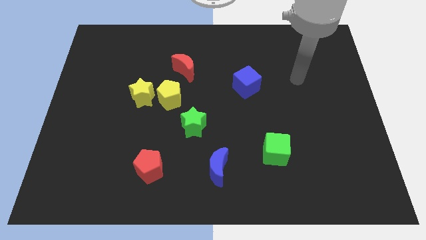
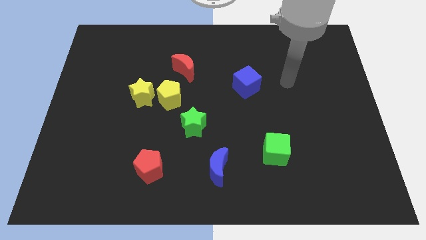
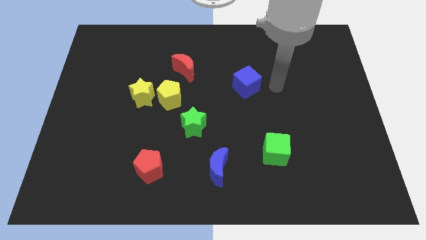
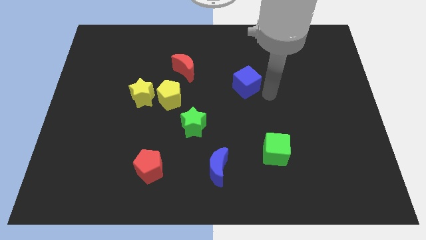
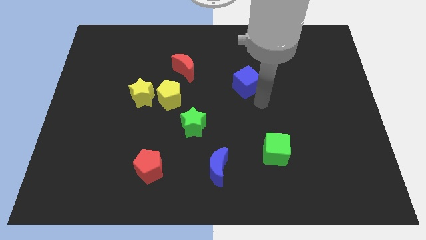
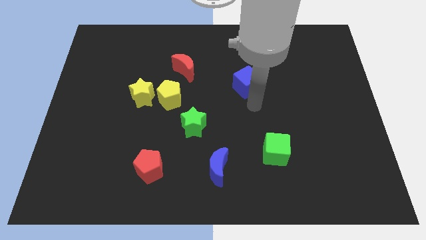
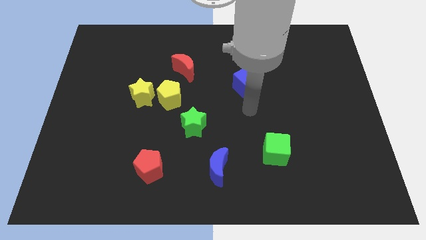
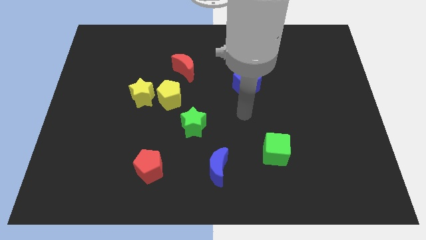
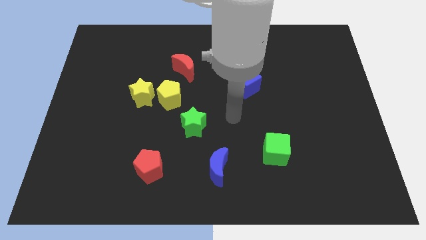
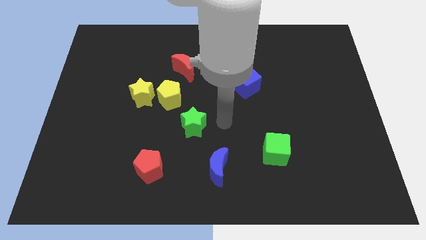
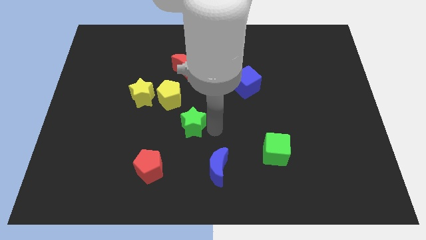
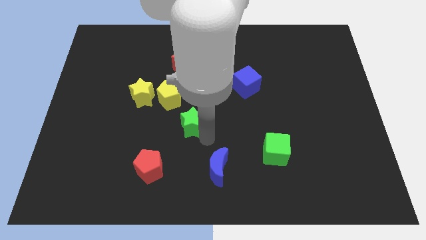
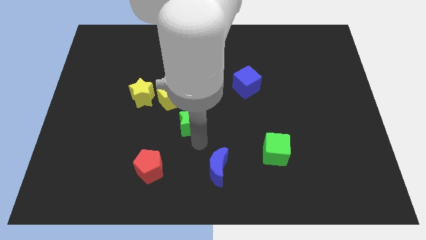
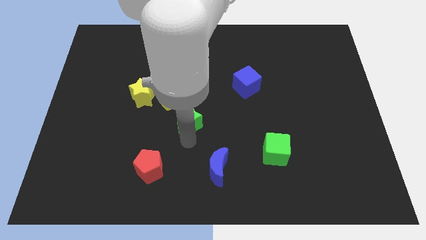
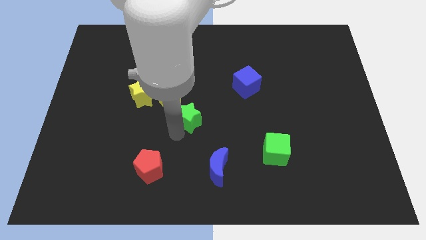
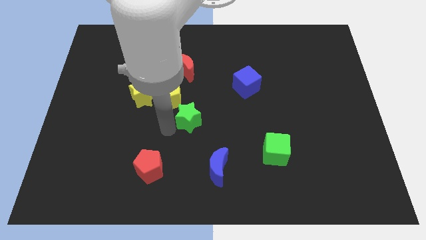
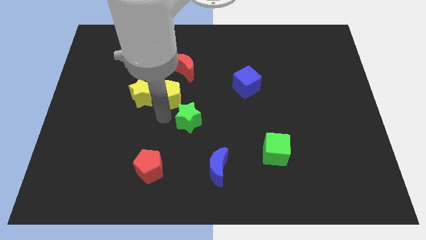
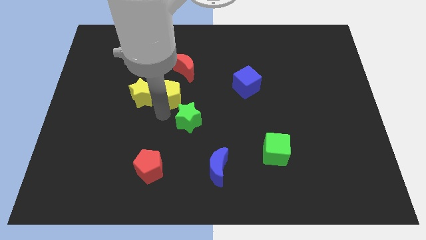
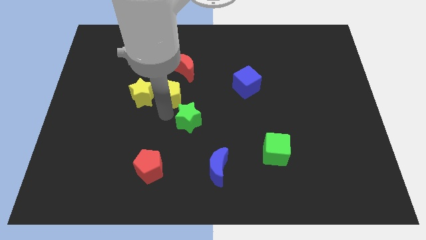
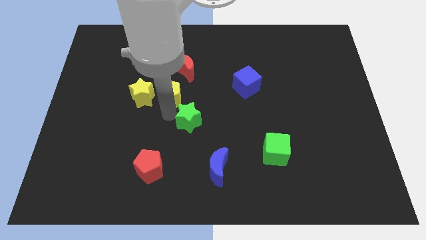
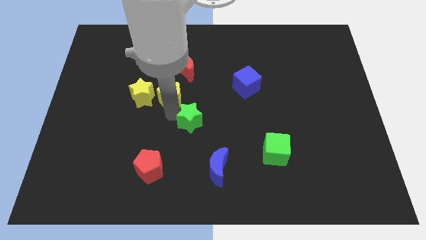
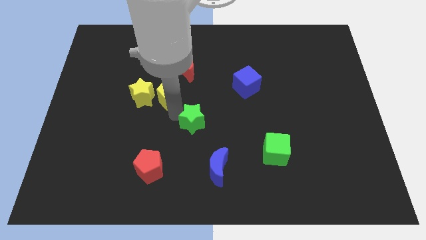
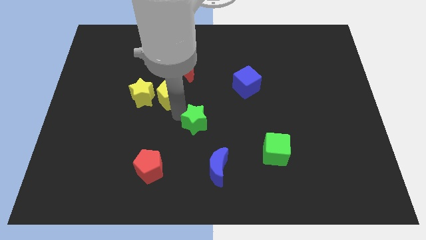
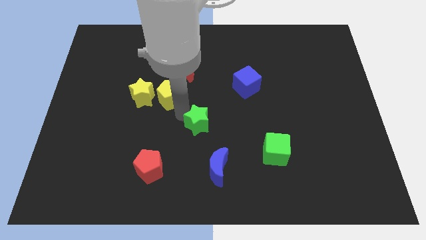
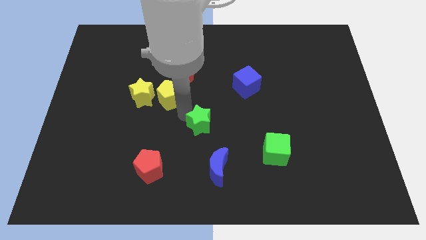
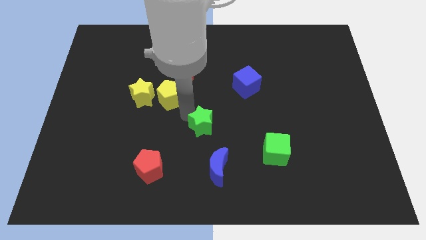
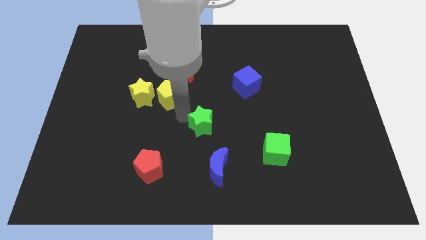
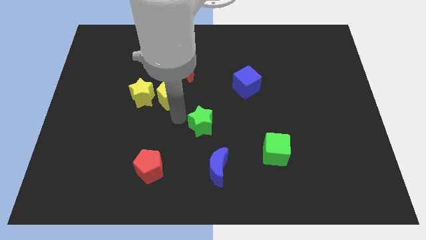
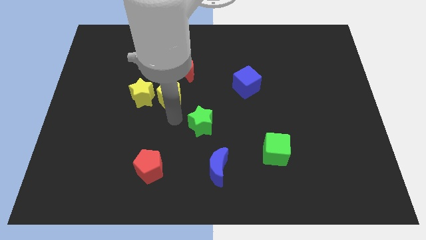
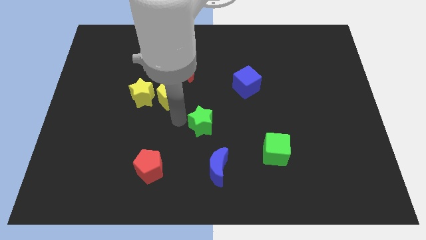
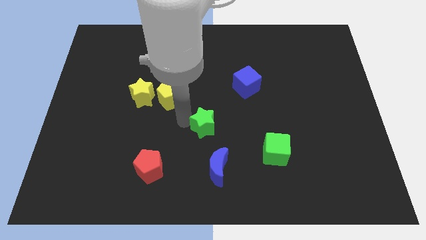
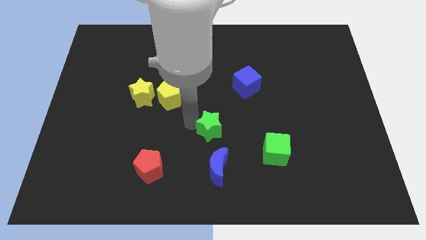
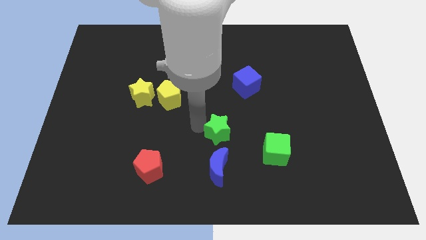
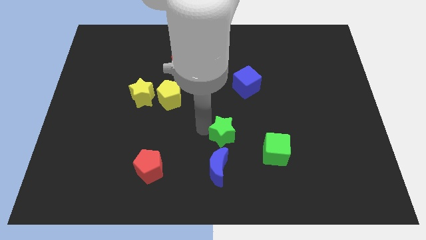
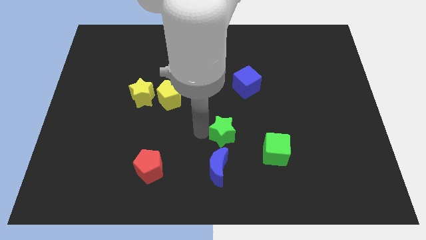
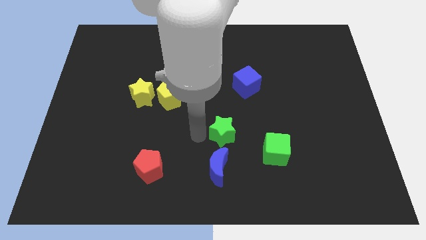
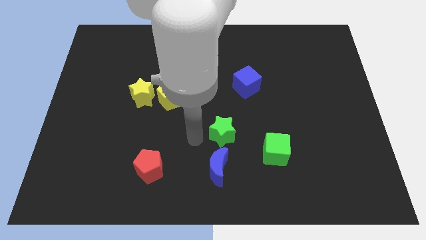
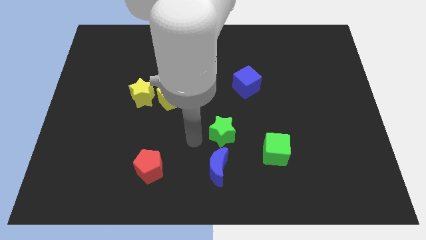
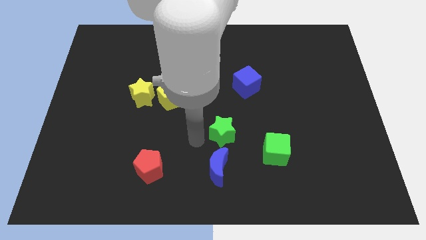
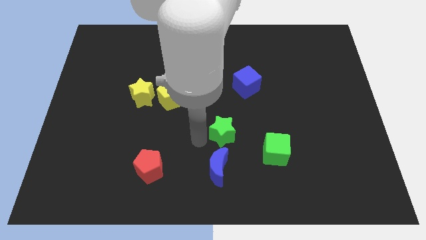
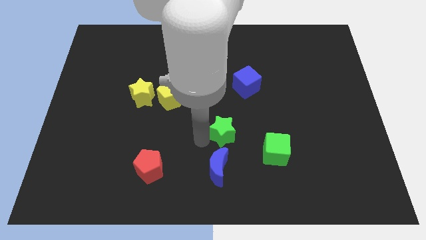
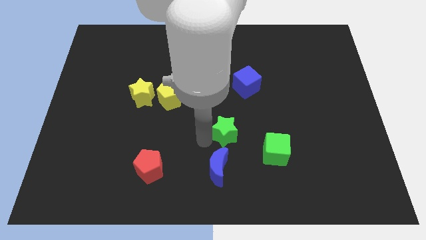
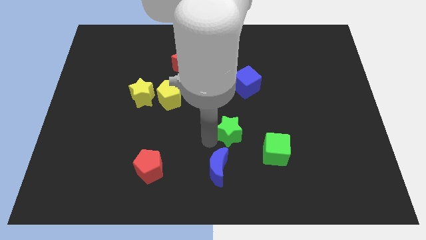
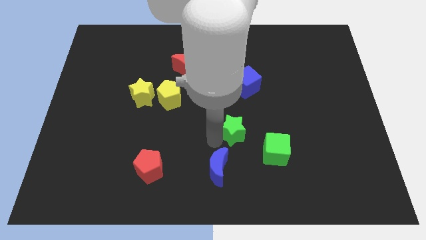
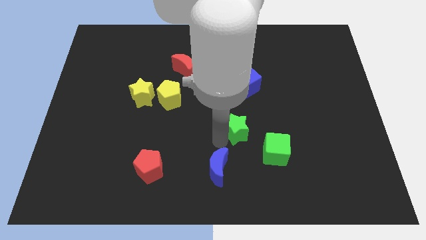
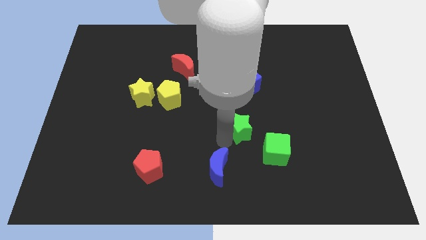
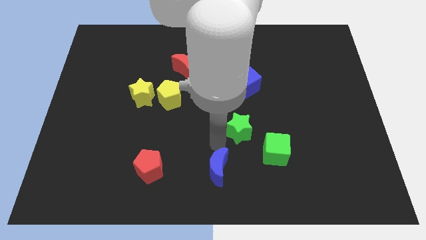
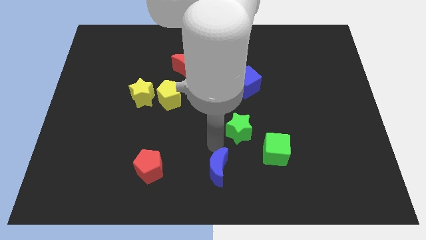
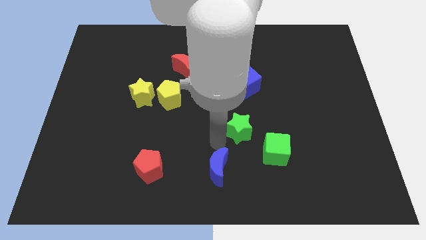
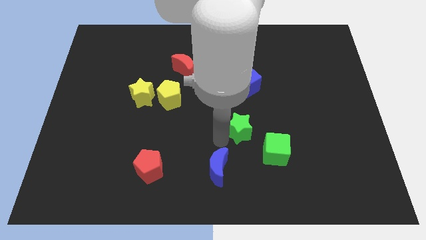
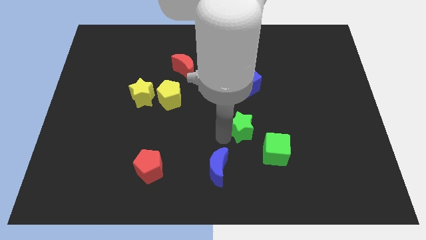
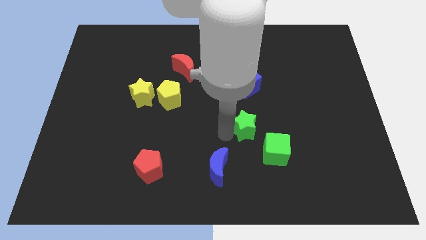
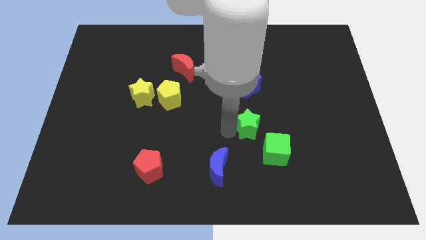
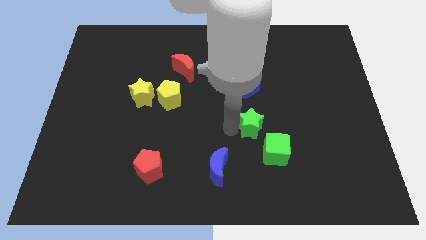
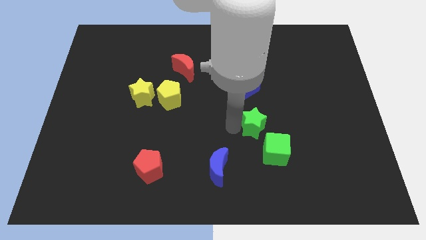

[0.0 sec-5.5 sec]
move the green star to the top side of the green cube

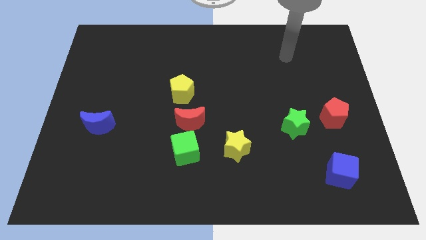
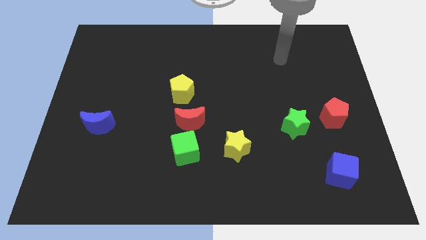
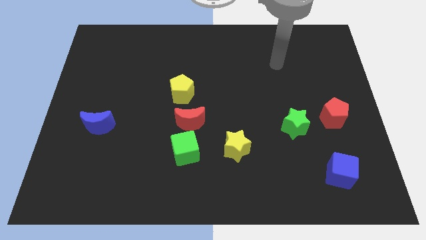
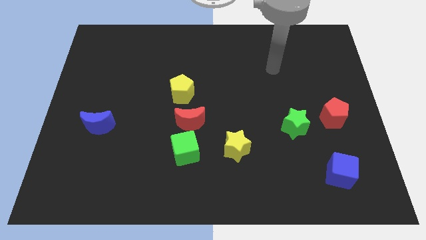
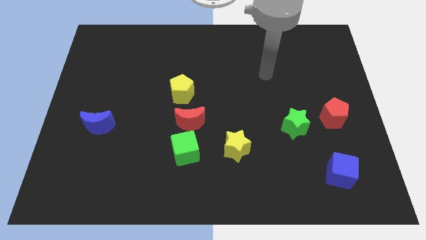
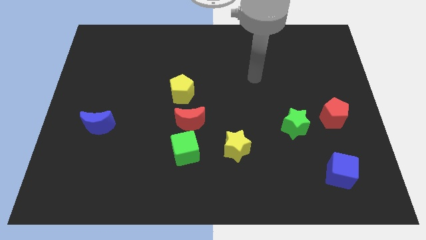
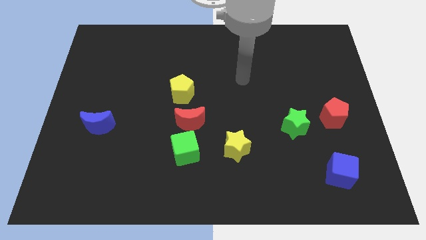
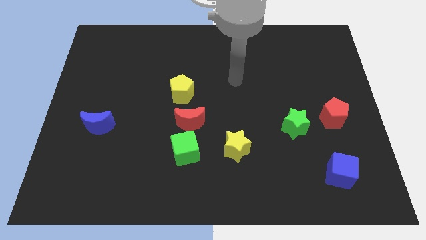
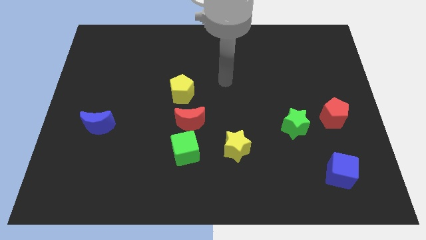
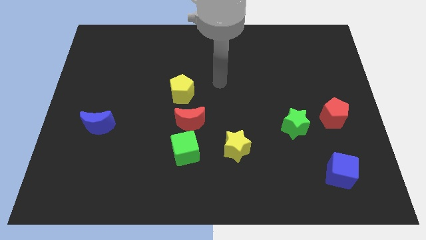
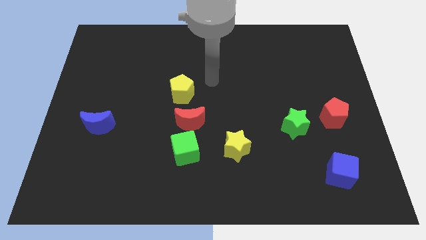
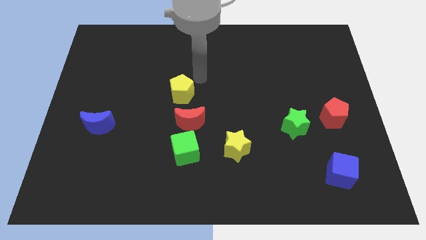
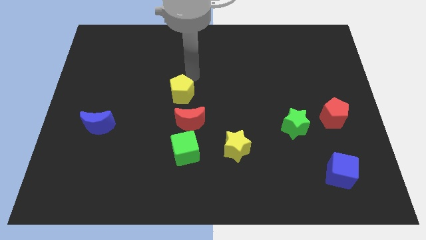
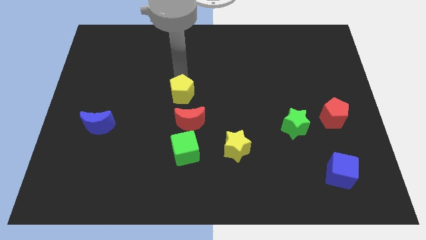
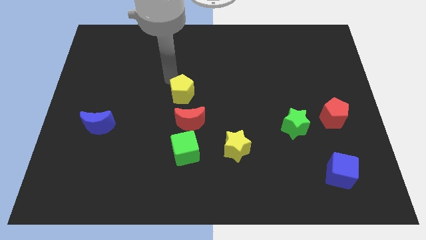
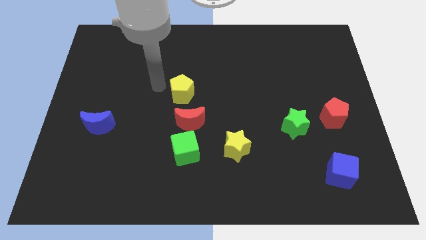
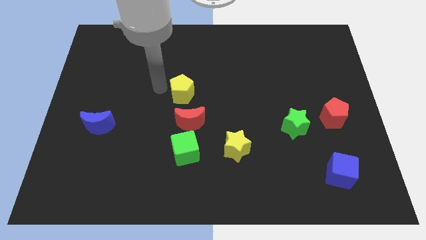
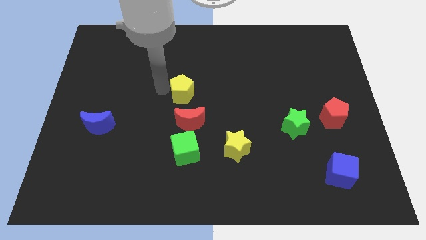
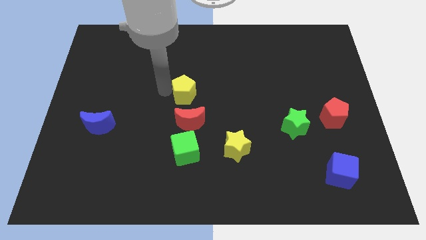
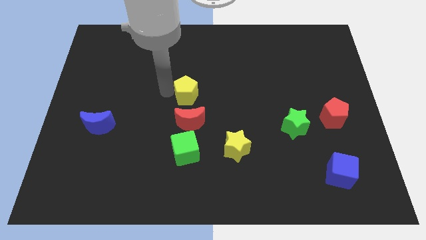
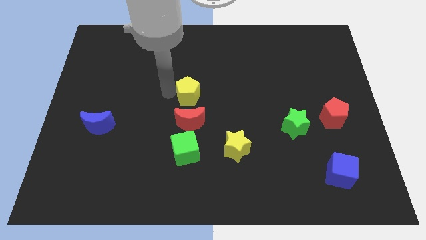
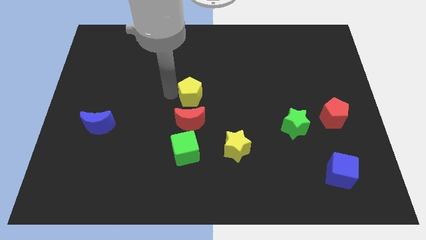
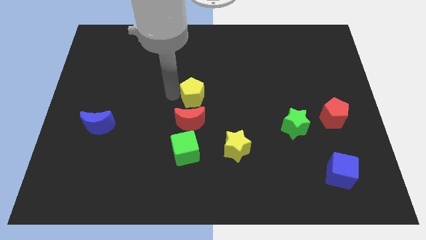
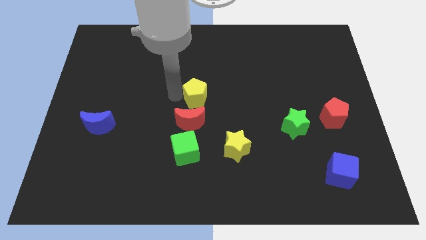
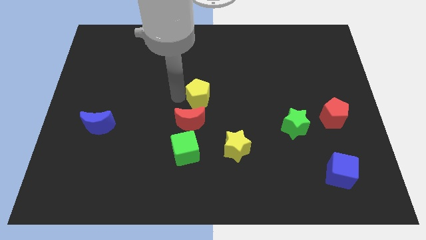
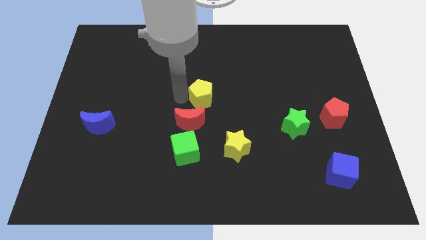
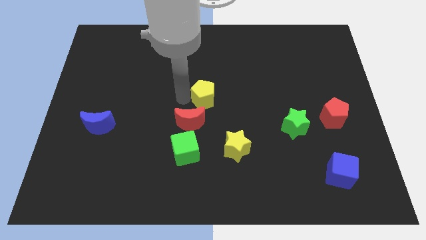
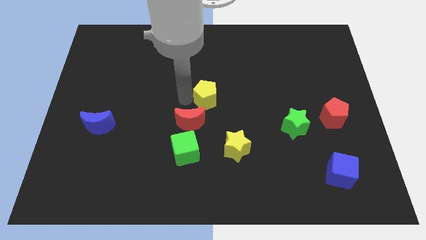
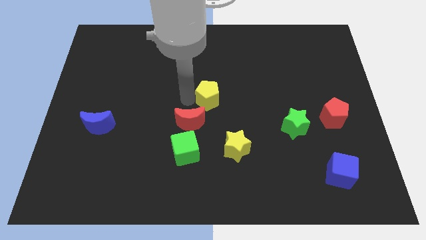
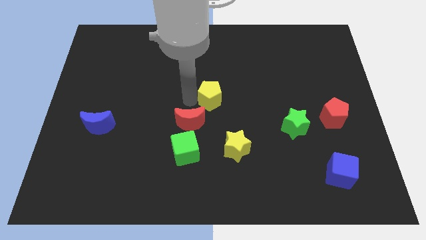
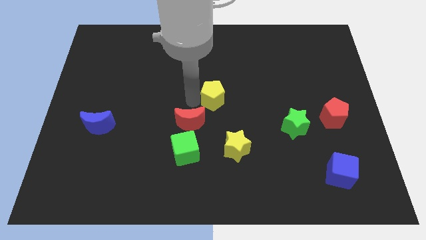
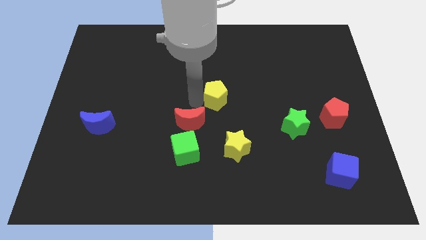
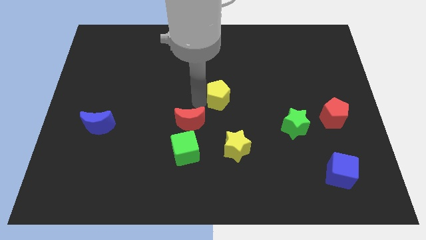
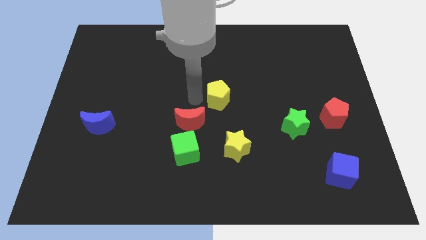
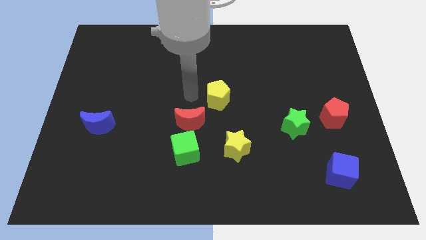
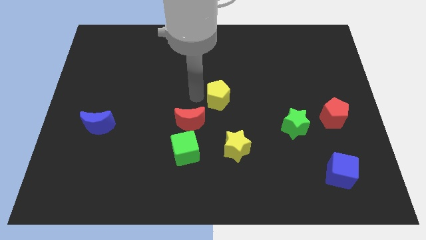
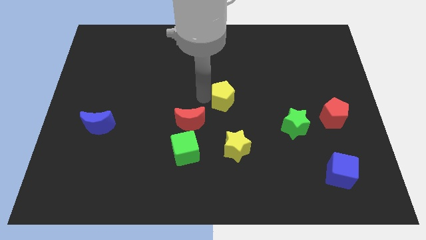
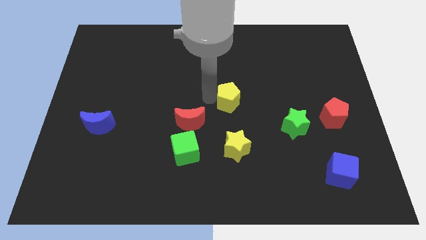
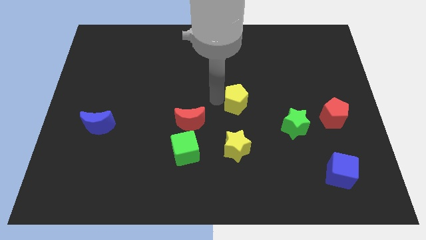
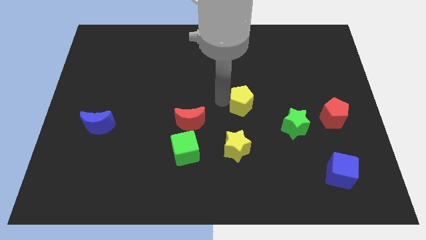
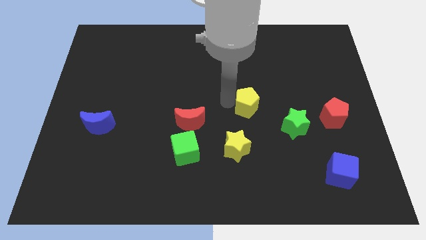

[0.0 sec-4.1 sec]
move the yellow pentagon to the top left side of the green star
